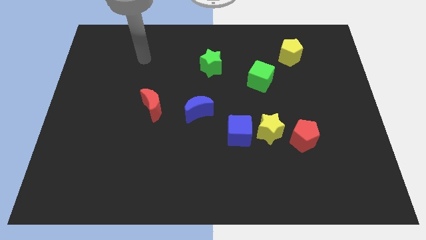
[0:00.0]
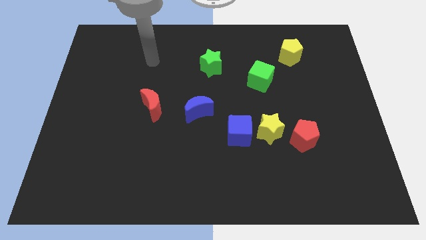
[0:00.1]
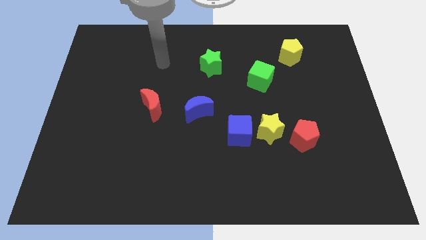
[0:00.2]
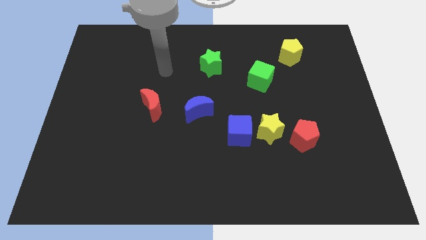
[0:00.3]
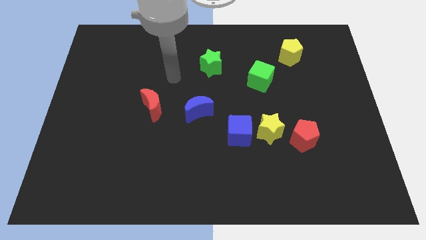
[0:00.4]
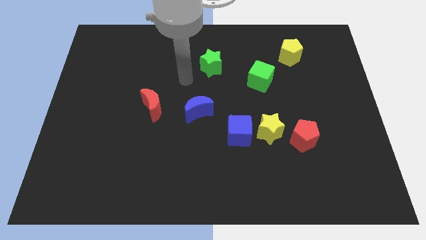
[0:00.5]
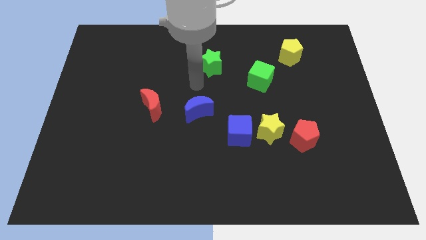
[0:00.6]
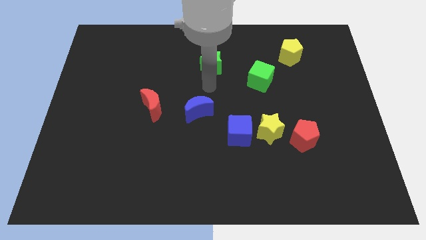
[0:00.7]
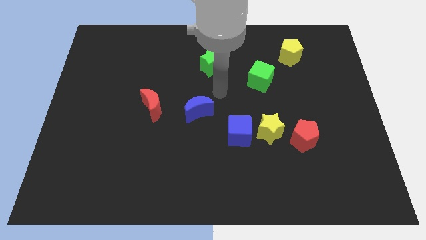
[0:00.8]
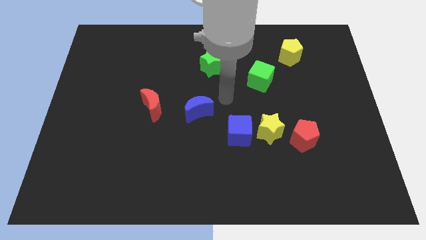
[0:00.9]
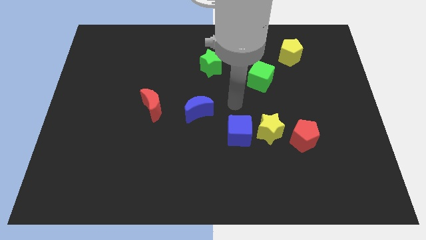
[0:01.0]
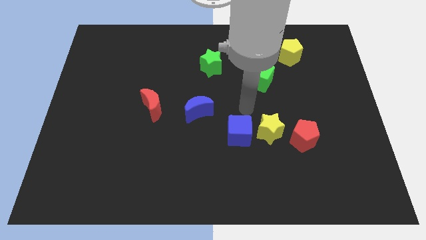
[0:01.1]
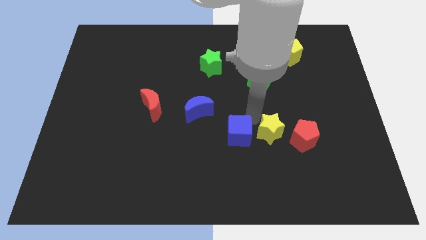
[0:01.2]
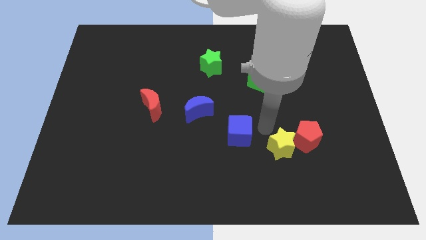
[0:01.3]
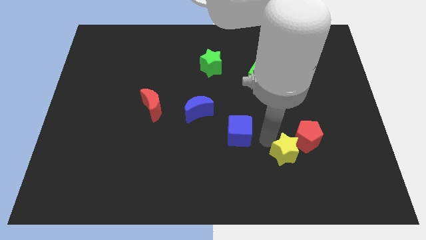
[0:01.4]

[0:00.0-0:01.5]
move the blue cube away from the yellow star

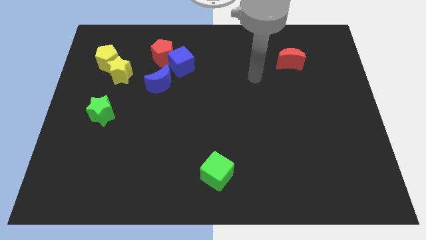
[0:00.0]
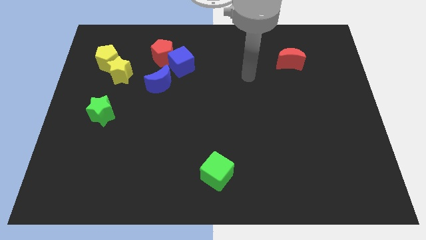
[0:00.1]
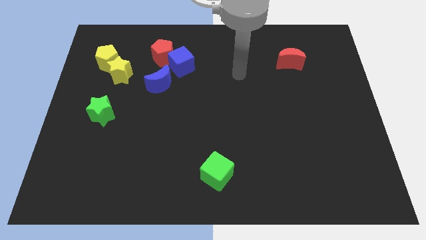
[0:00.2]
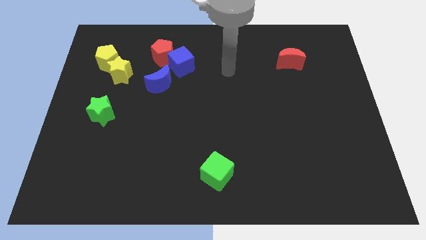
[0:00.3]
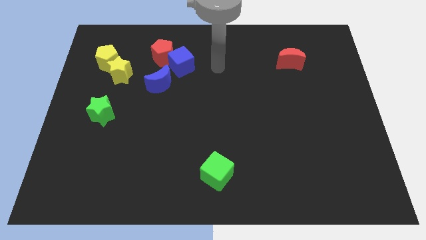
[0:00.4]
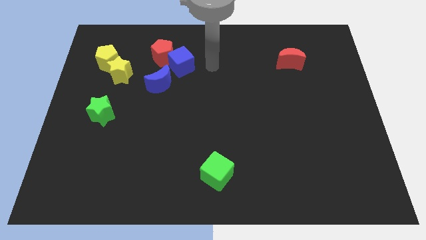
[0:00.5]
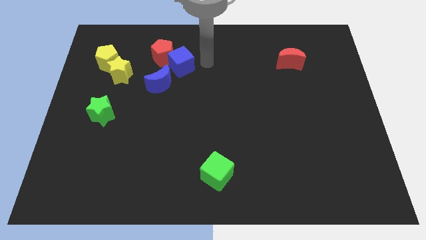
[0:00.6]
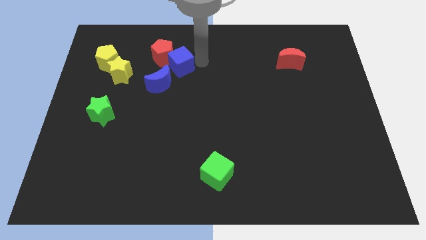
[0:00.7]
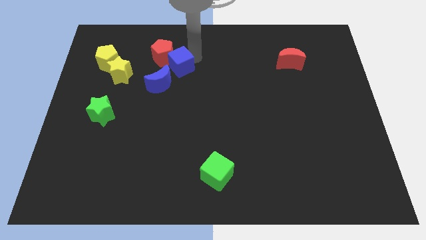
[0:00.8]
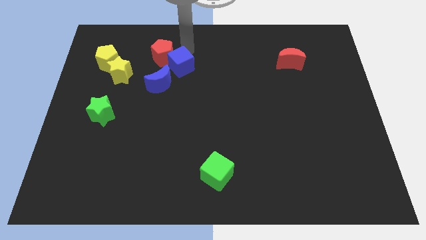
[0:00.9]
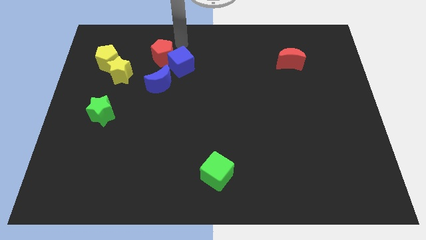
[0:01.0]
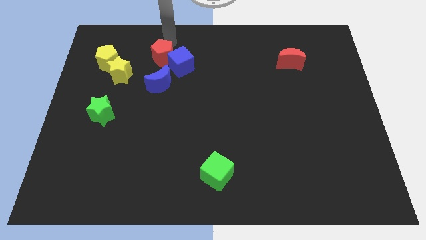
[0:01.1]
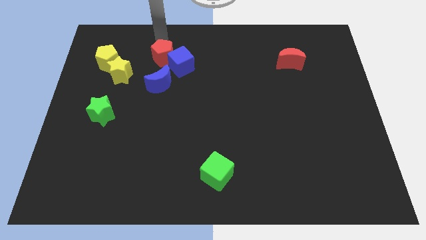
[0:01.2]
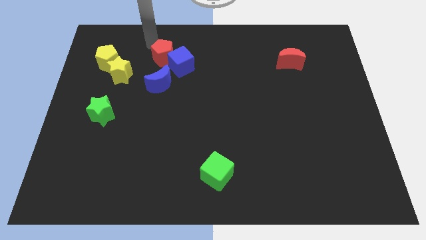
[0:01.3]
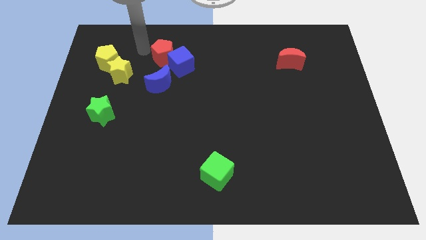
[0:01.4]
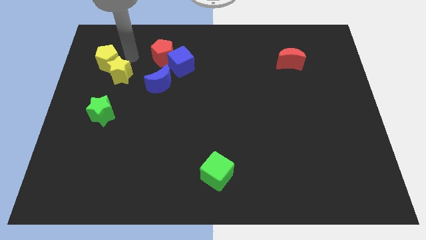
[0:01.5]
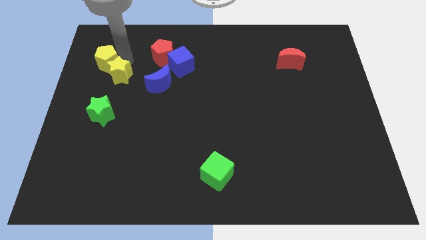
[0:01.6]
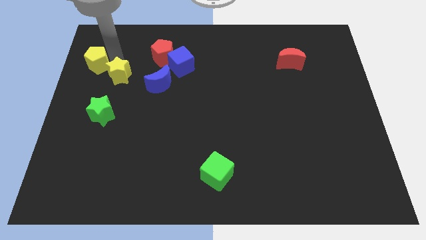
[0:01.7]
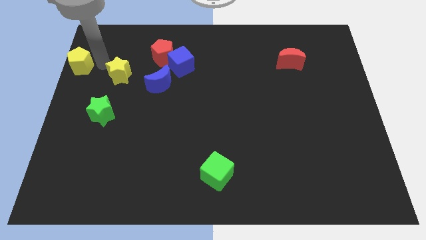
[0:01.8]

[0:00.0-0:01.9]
separate the yellow star from the yellow pentagon

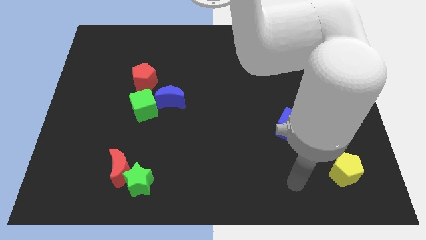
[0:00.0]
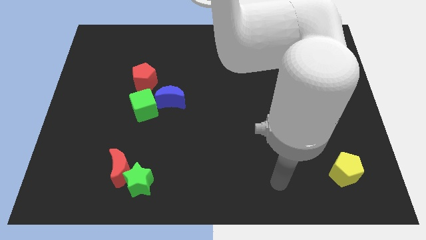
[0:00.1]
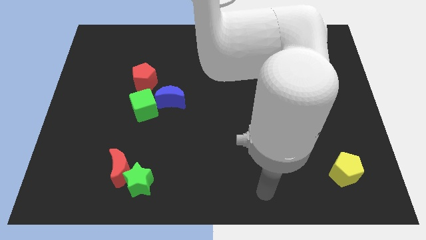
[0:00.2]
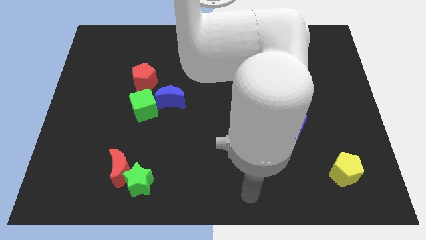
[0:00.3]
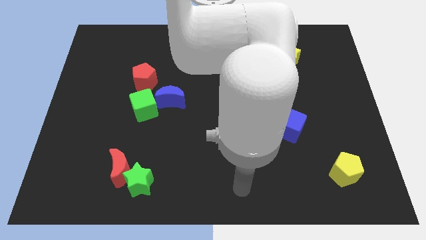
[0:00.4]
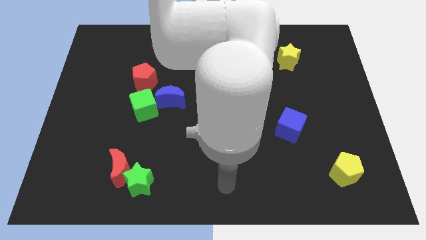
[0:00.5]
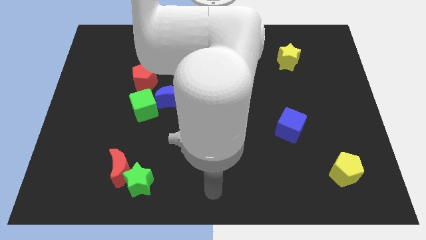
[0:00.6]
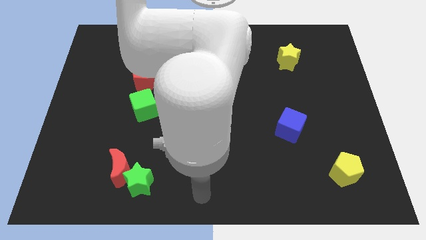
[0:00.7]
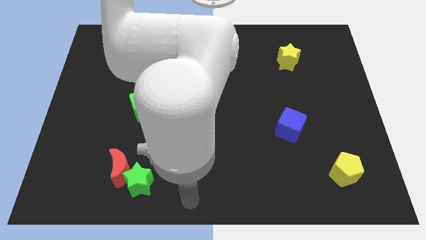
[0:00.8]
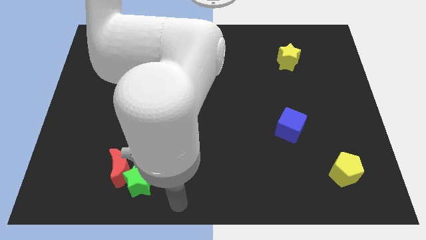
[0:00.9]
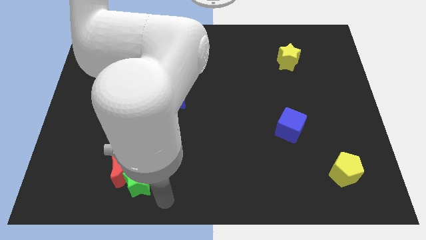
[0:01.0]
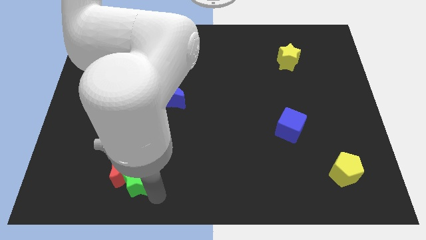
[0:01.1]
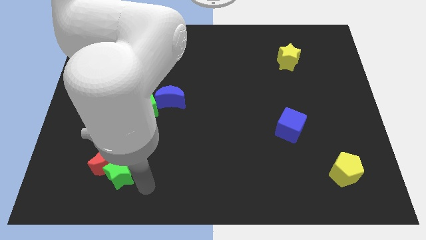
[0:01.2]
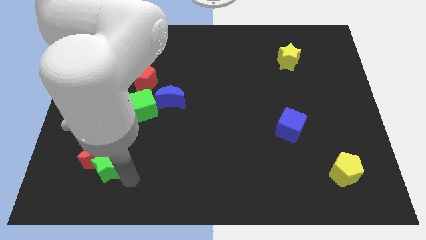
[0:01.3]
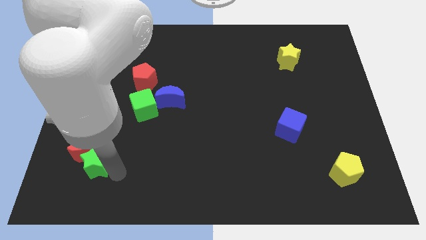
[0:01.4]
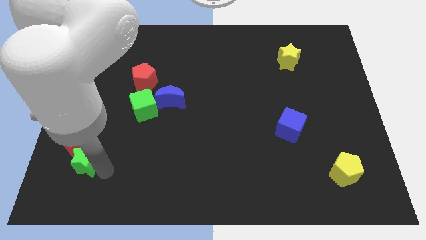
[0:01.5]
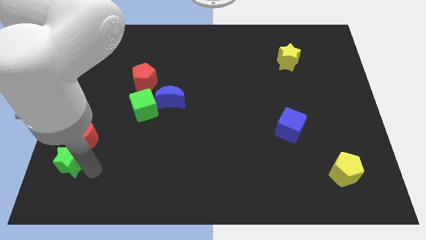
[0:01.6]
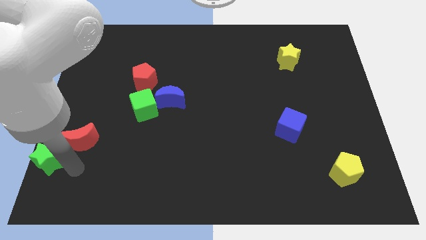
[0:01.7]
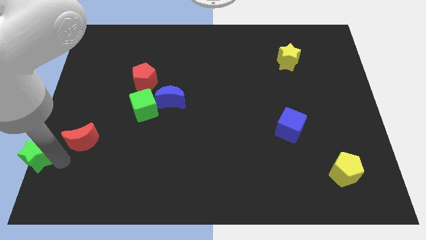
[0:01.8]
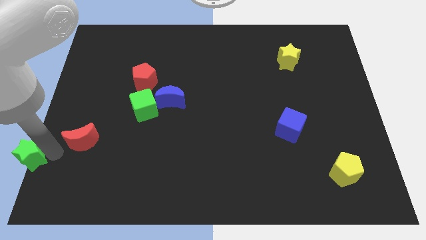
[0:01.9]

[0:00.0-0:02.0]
separate the red moon from the green star

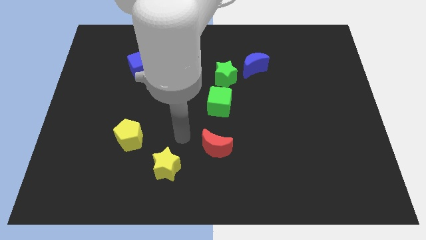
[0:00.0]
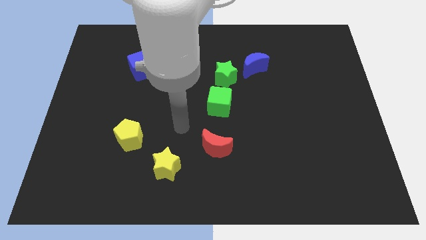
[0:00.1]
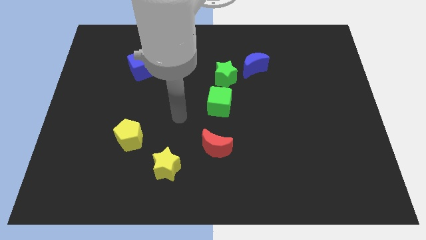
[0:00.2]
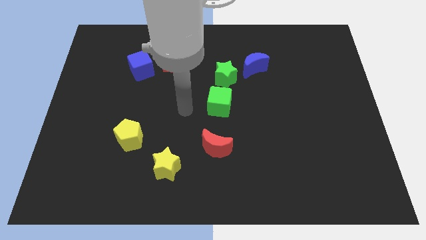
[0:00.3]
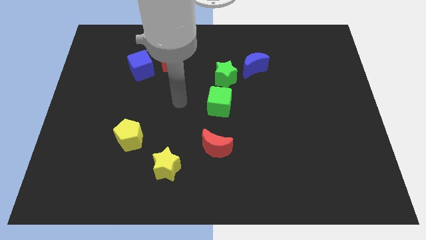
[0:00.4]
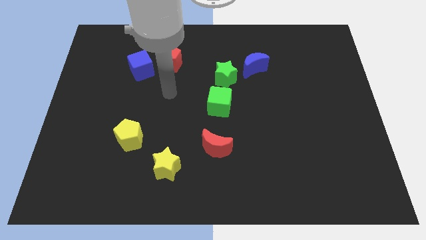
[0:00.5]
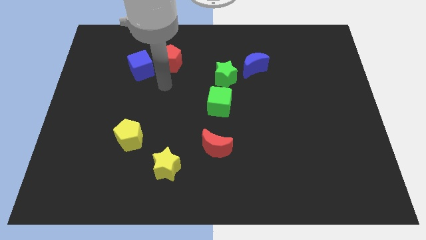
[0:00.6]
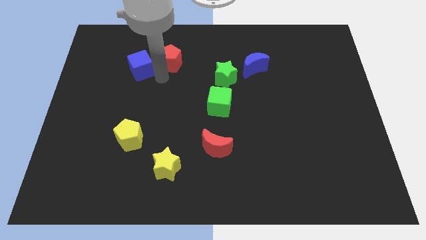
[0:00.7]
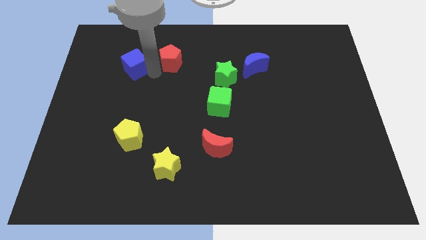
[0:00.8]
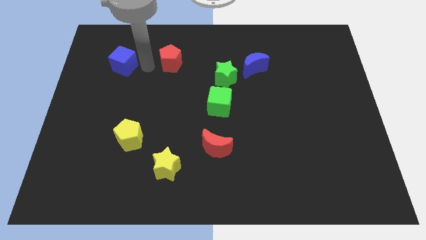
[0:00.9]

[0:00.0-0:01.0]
separate the red pentagon from the blue cube

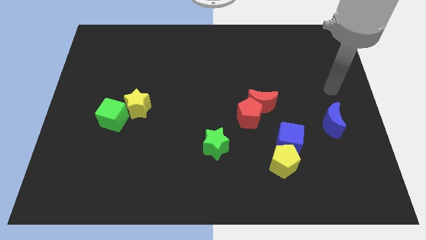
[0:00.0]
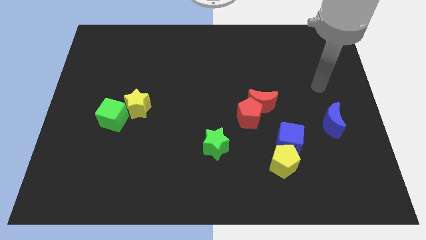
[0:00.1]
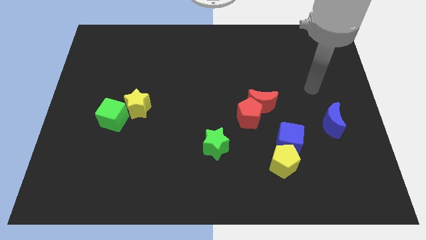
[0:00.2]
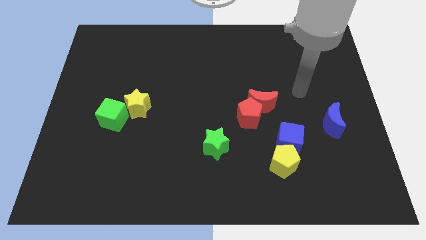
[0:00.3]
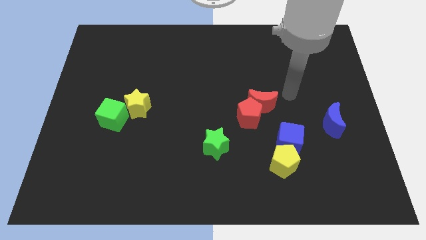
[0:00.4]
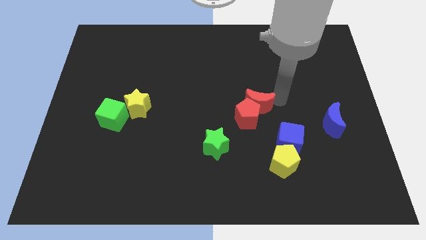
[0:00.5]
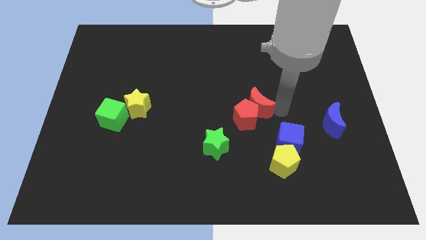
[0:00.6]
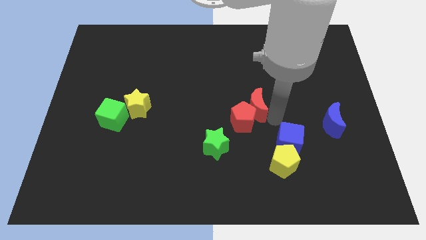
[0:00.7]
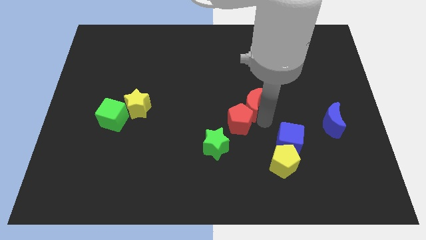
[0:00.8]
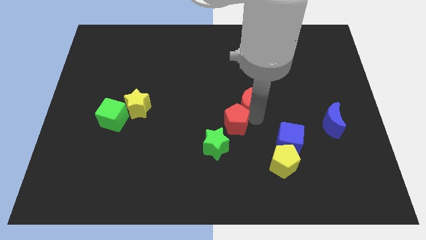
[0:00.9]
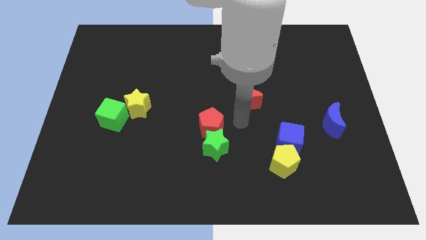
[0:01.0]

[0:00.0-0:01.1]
move the red moon away from the red pentagon

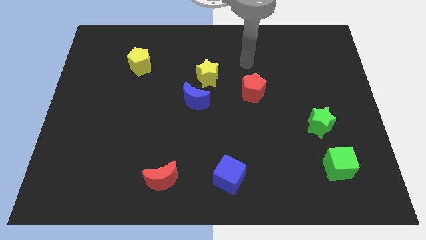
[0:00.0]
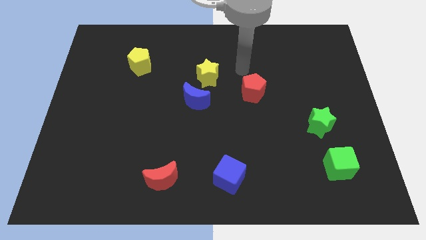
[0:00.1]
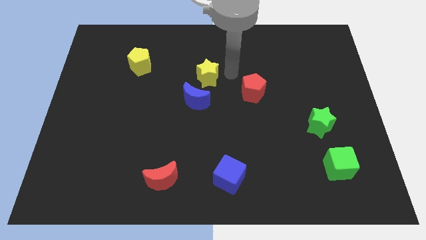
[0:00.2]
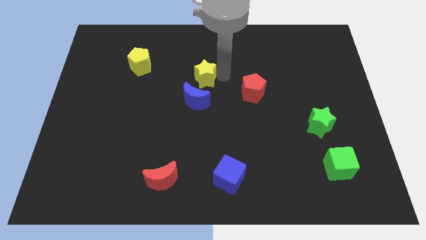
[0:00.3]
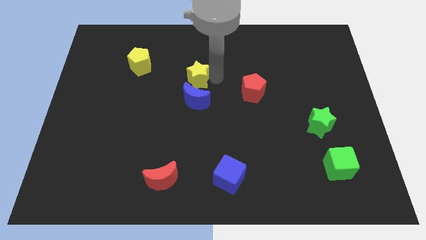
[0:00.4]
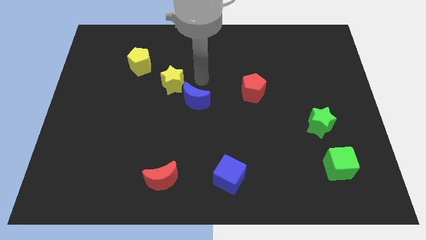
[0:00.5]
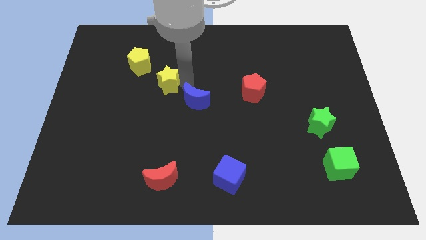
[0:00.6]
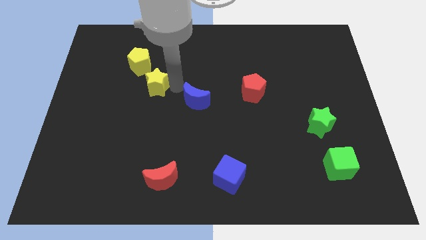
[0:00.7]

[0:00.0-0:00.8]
separate the blue moon from the yellow star

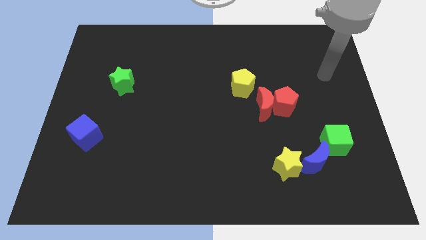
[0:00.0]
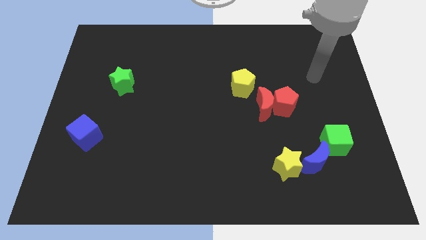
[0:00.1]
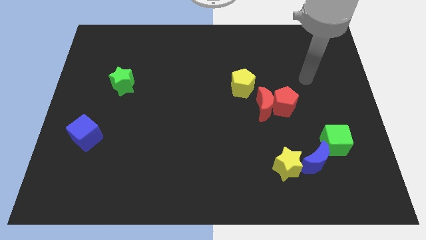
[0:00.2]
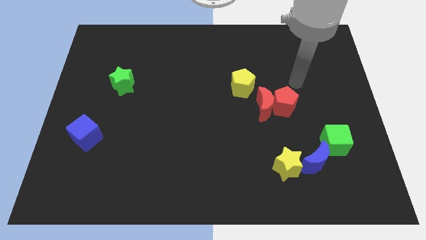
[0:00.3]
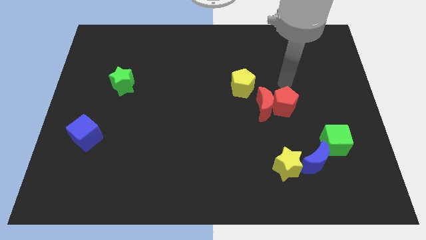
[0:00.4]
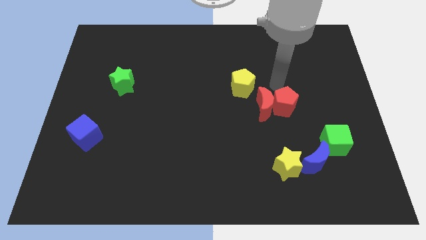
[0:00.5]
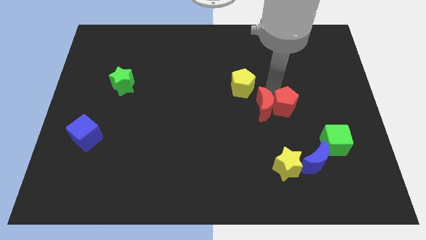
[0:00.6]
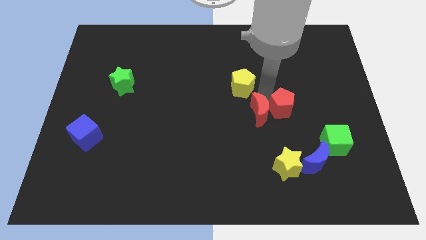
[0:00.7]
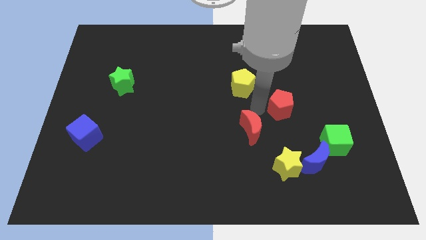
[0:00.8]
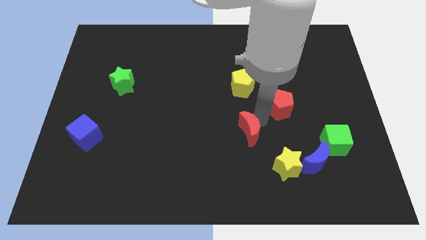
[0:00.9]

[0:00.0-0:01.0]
pull the red pentagon apart from the red moon

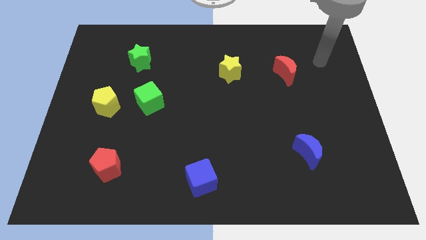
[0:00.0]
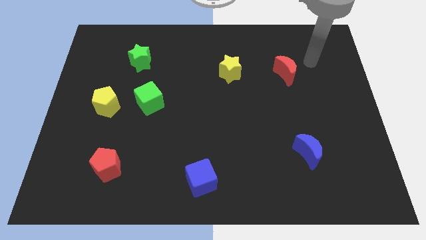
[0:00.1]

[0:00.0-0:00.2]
pull the green cube apart from the yellow pentagon
